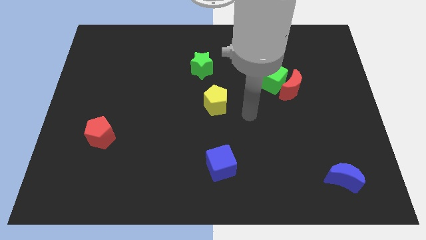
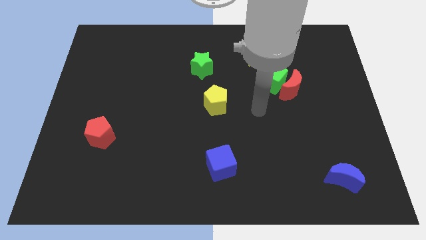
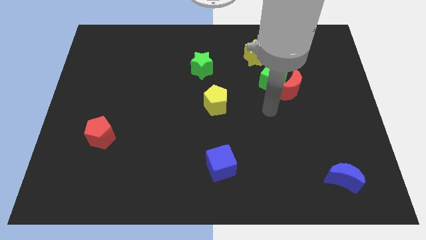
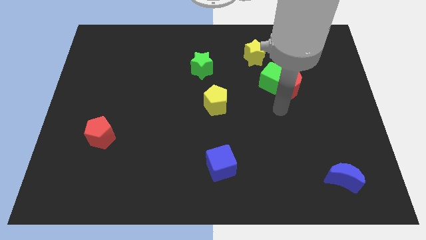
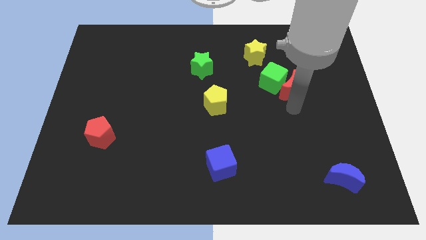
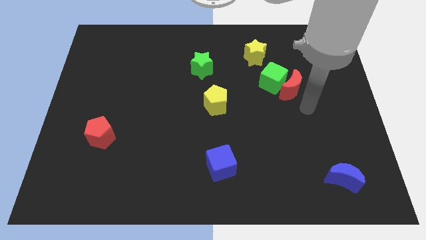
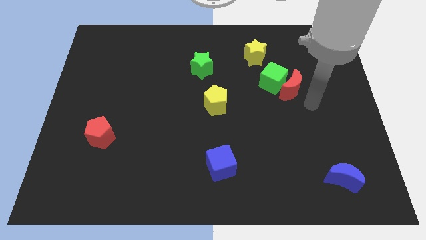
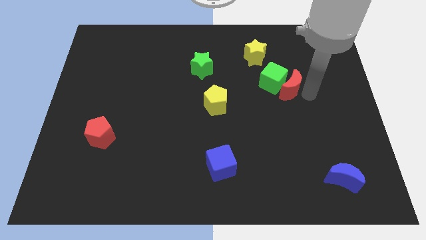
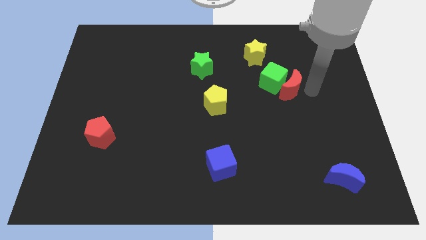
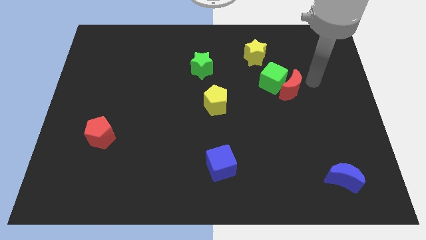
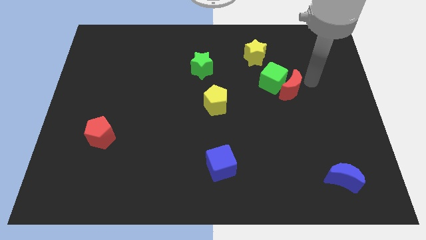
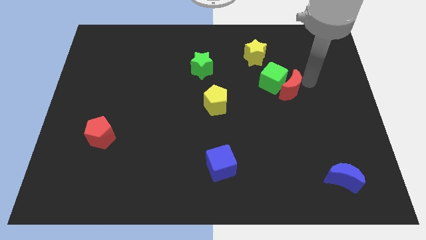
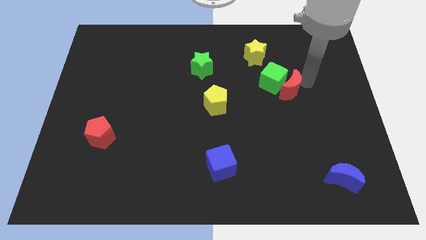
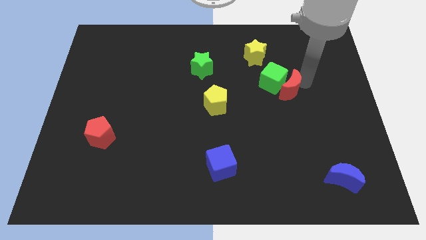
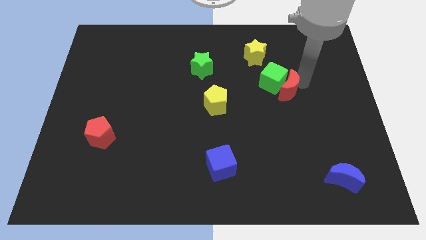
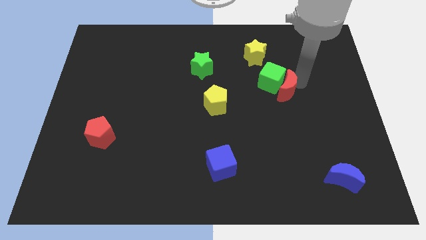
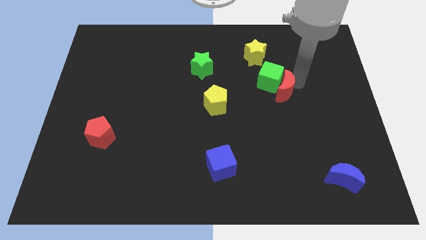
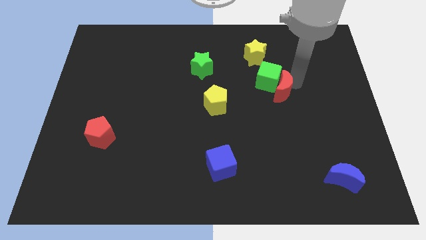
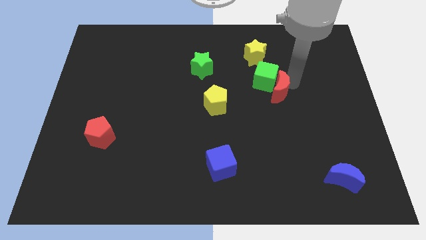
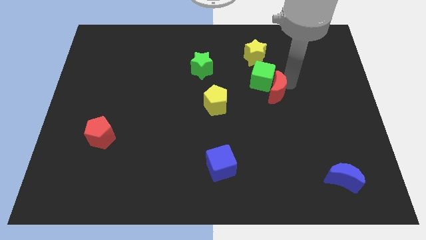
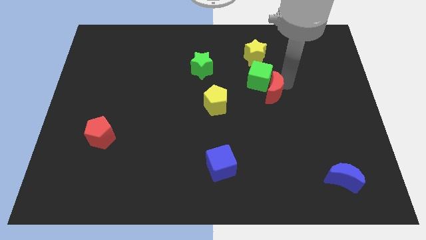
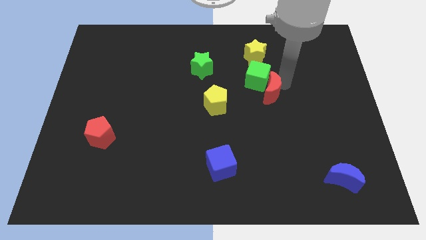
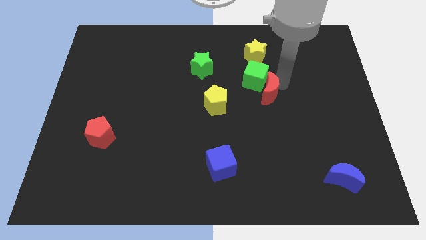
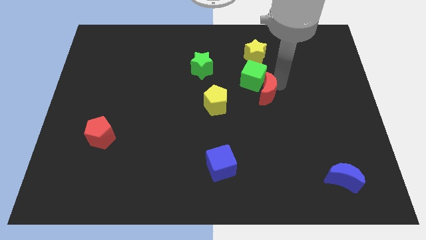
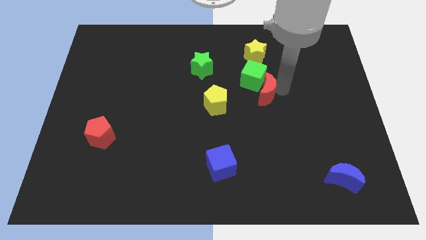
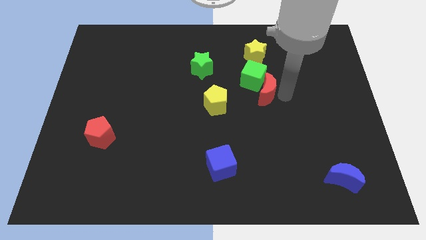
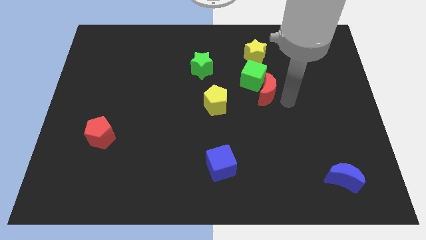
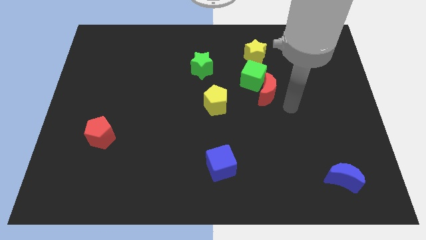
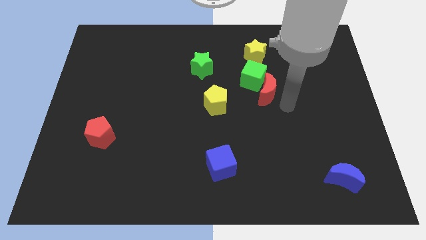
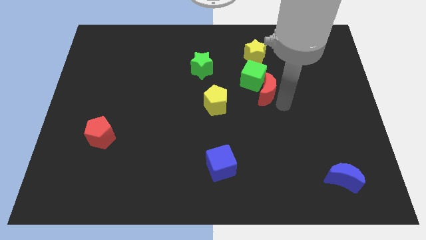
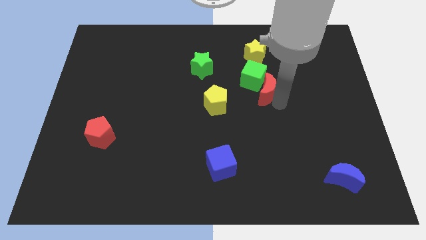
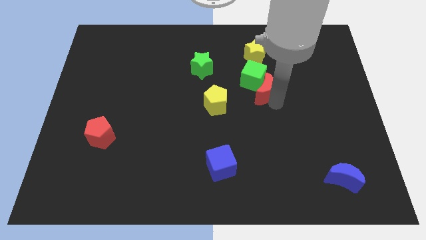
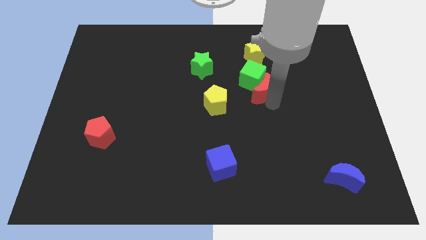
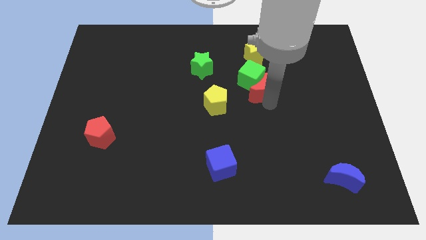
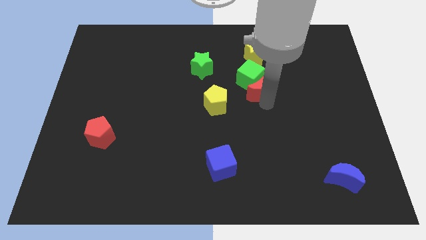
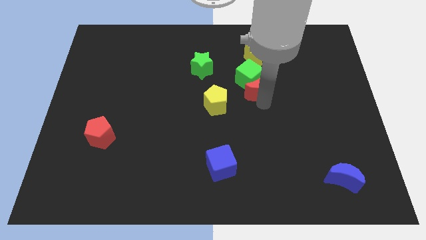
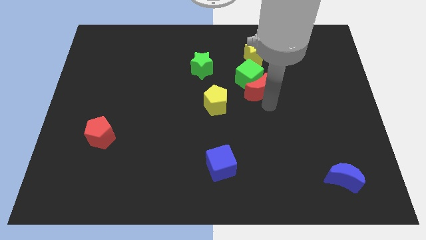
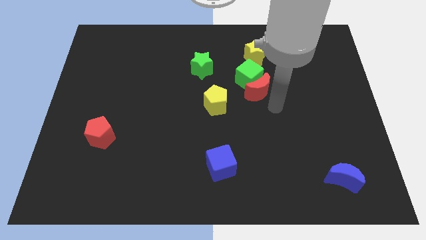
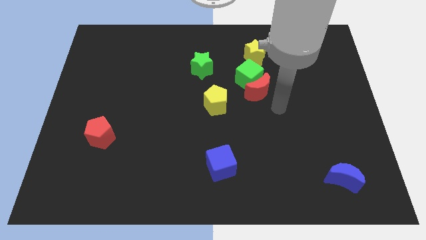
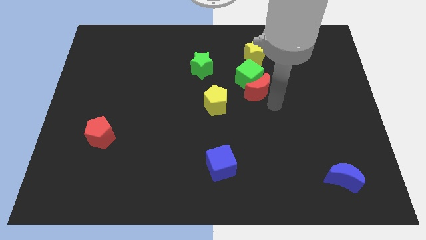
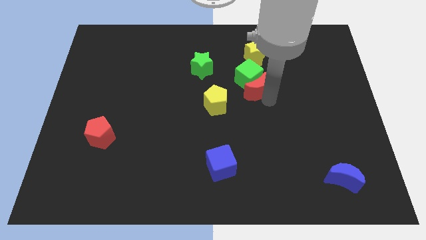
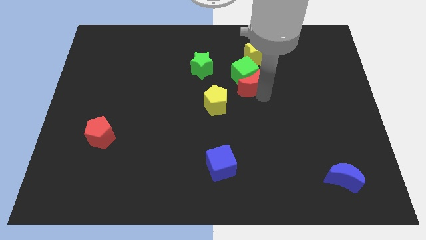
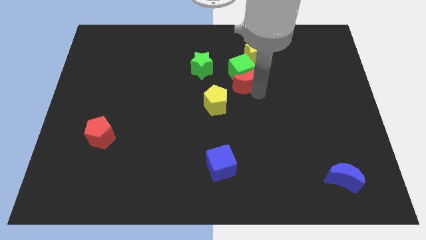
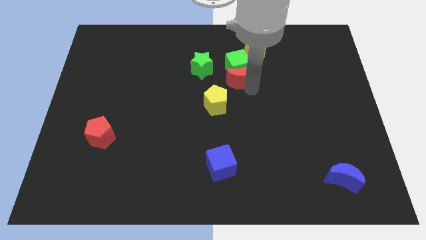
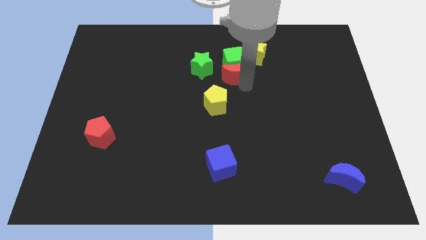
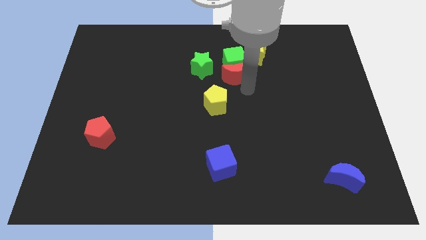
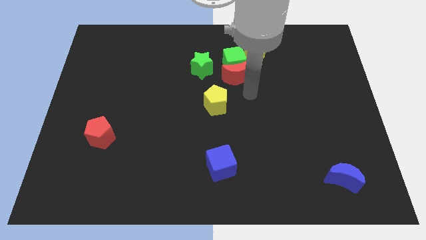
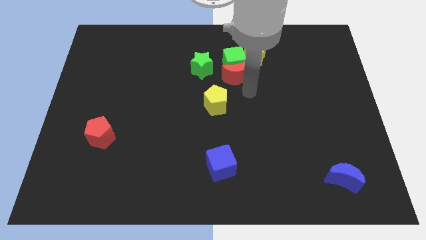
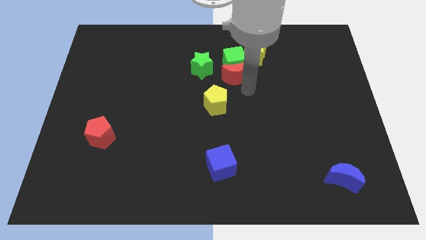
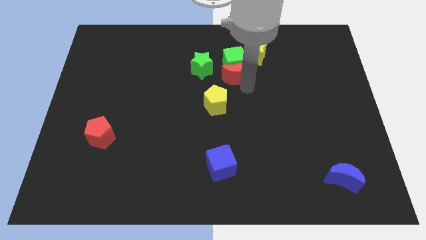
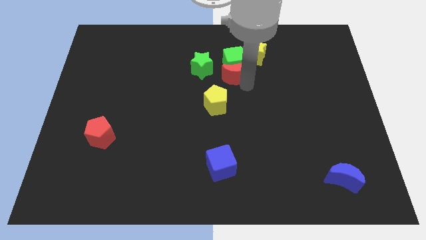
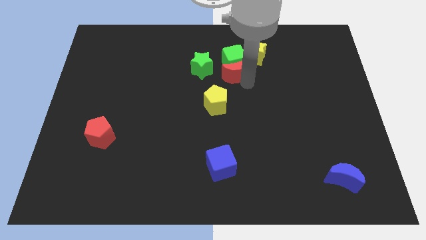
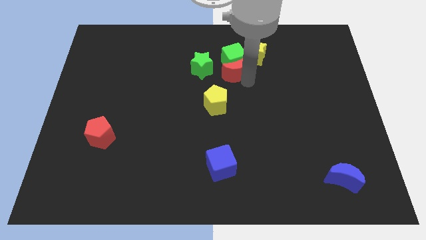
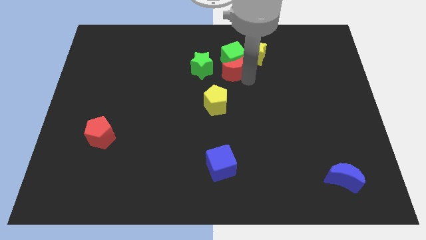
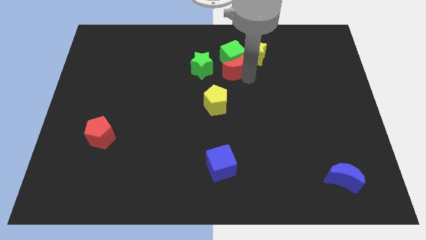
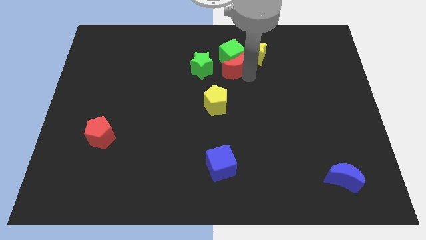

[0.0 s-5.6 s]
move the red moon just left of the yellow star

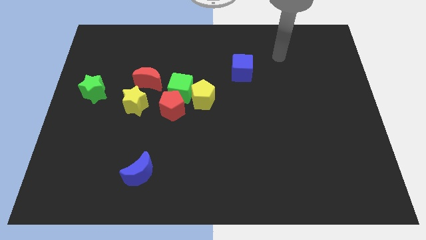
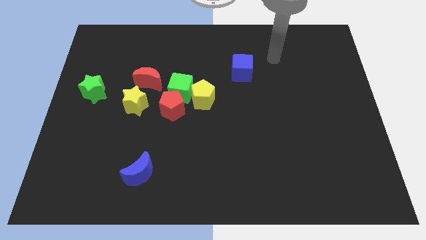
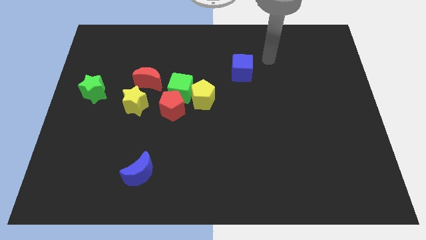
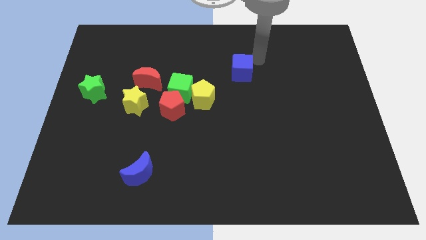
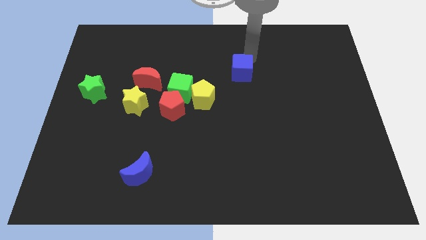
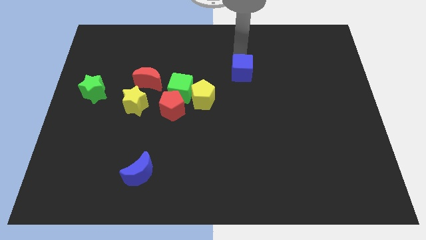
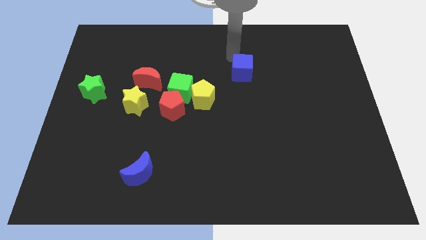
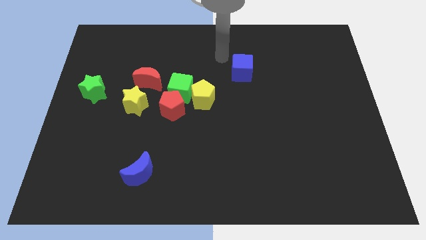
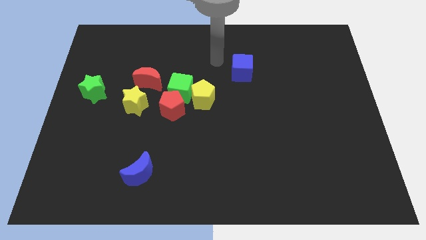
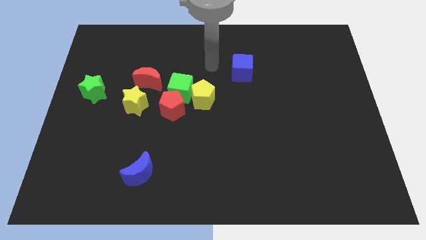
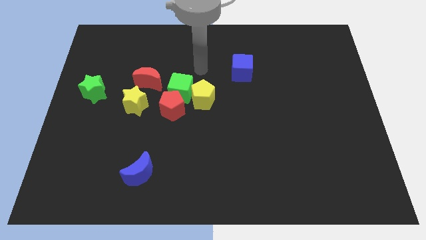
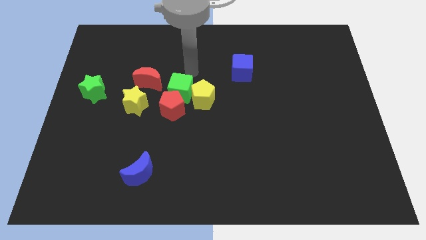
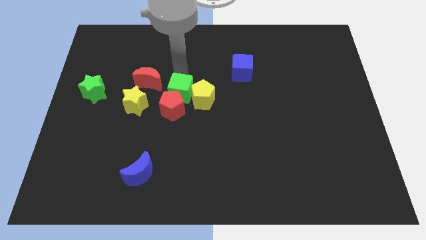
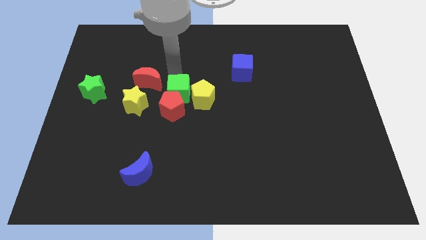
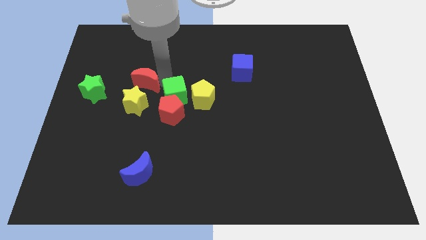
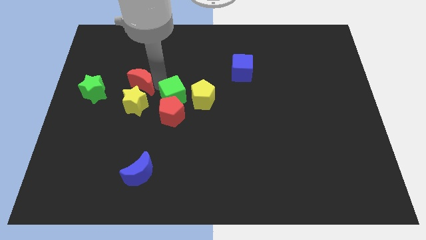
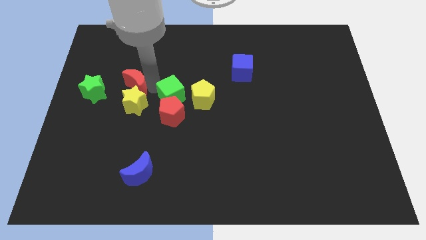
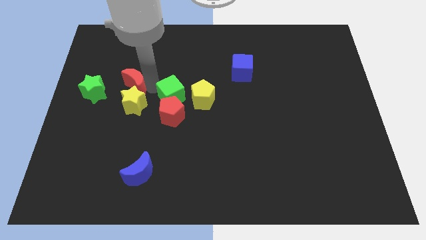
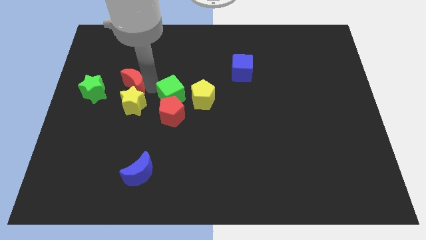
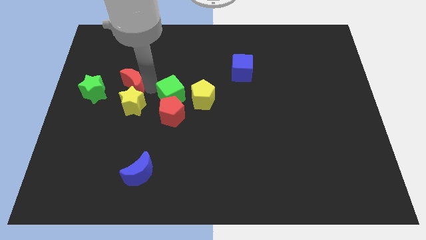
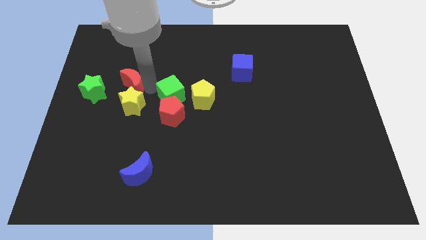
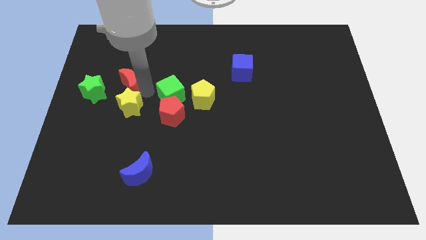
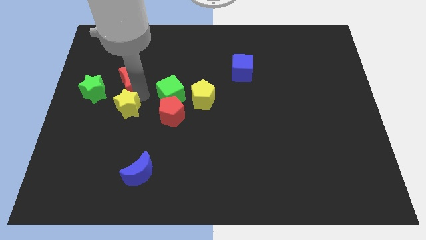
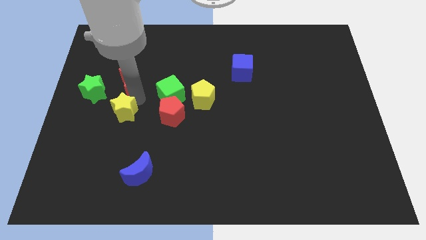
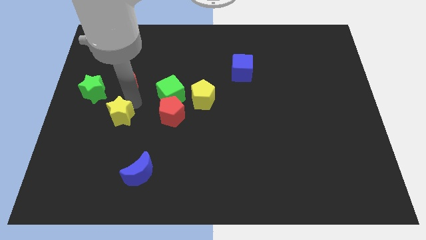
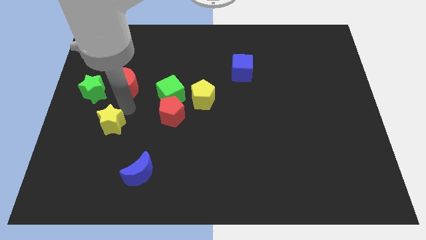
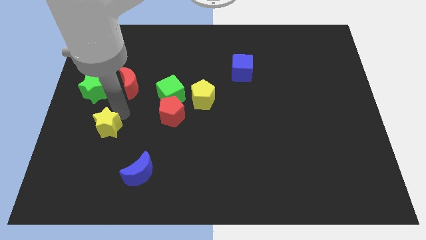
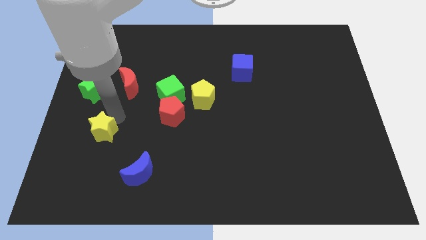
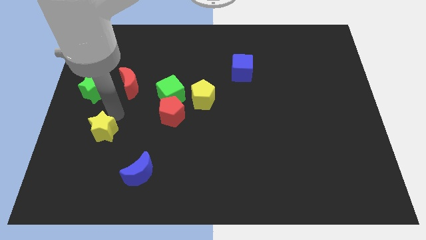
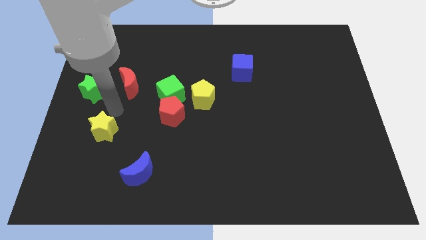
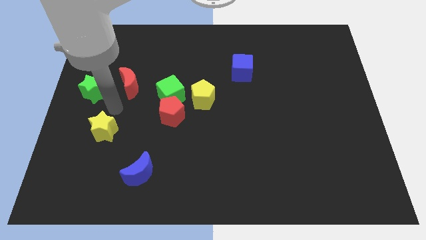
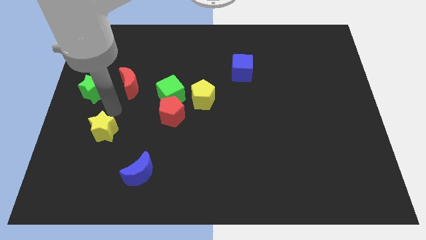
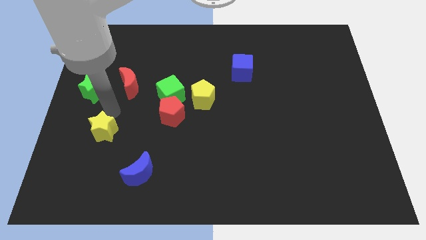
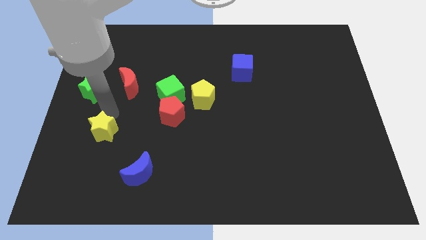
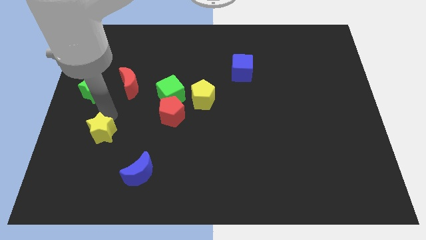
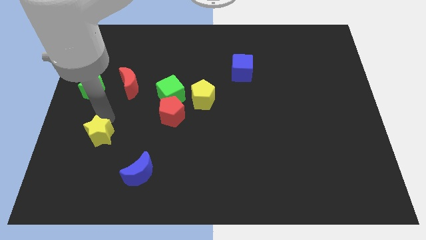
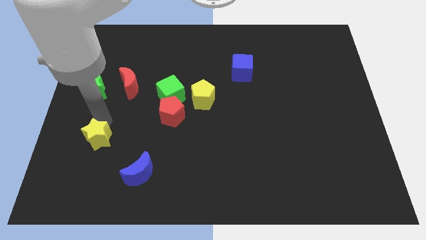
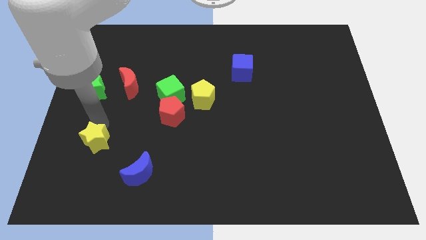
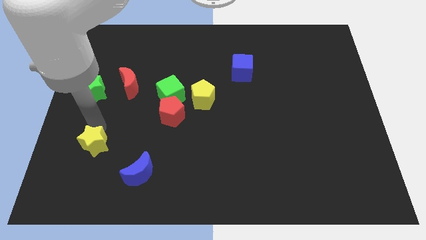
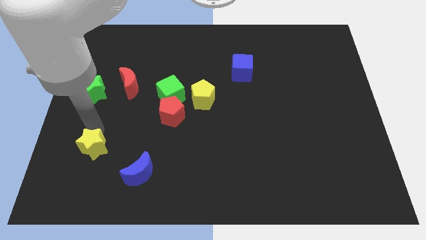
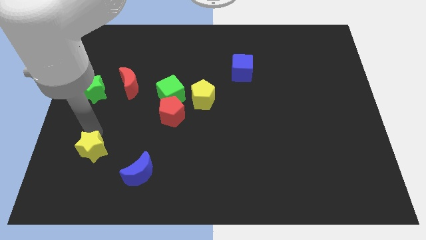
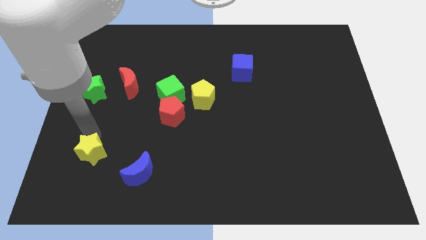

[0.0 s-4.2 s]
slide the yellow star to the left of the blue moon
